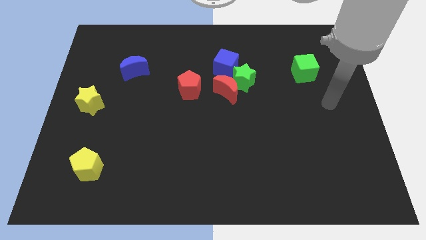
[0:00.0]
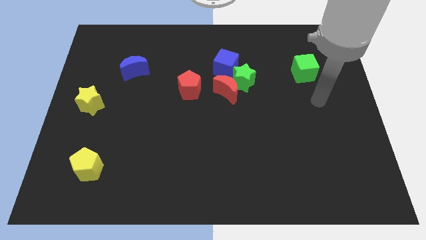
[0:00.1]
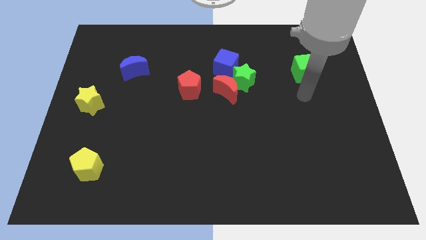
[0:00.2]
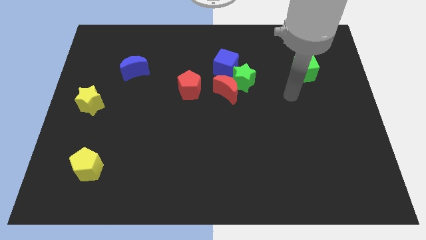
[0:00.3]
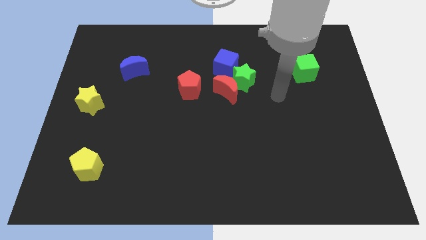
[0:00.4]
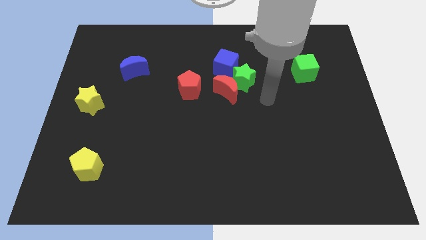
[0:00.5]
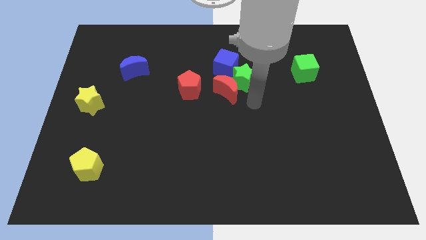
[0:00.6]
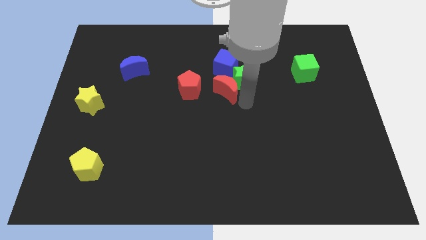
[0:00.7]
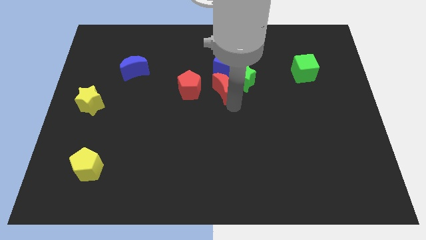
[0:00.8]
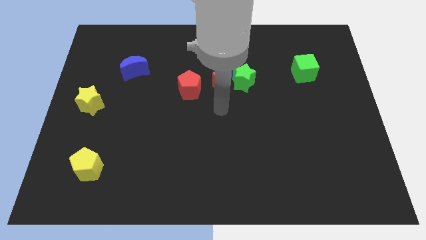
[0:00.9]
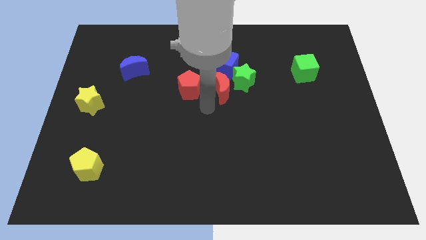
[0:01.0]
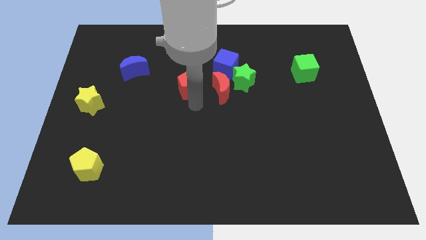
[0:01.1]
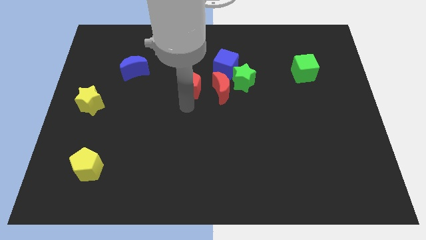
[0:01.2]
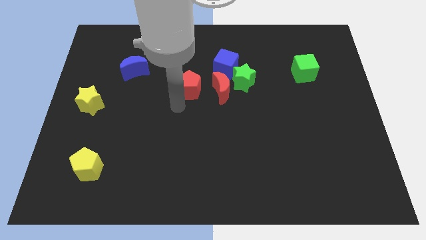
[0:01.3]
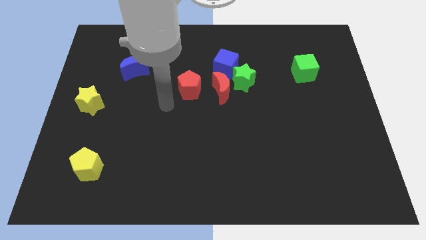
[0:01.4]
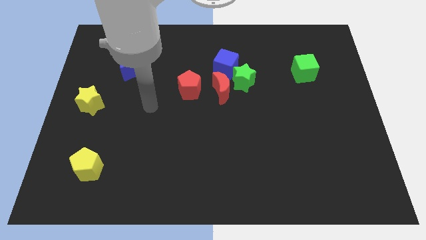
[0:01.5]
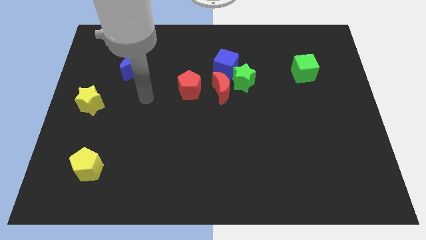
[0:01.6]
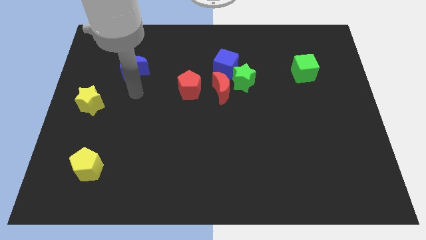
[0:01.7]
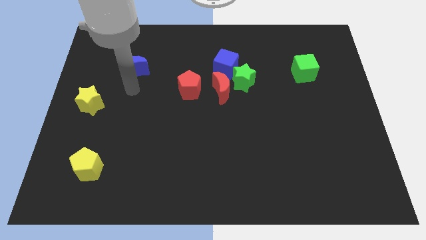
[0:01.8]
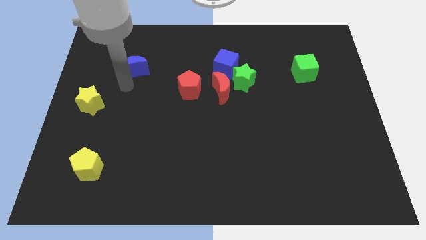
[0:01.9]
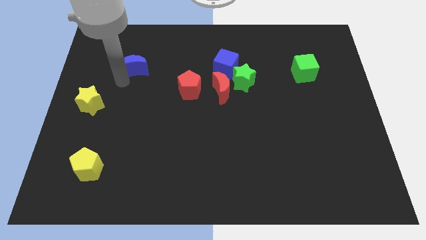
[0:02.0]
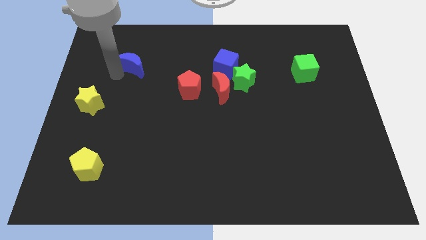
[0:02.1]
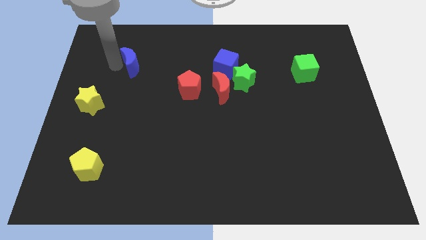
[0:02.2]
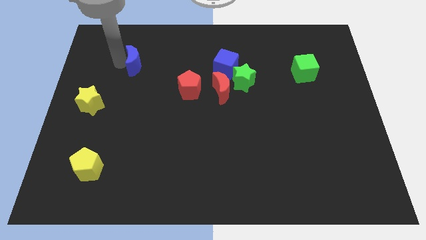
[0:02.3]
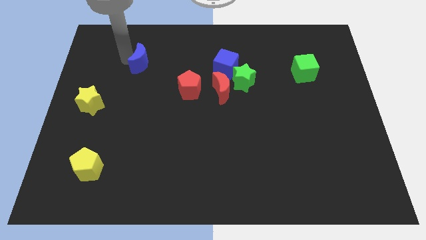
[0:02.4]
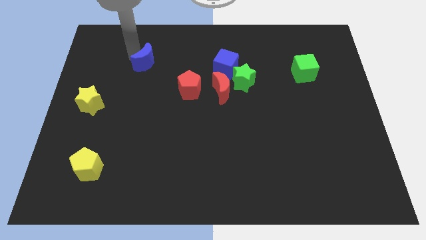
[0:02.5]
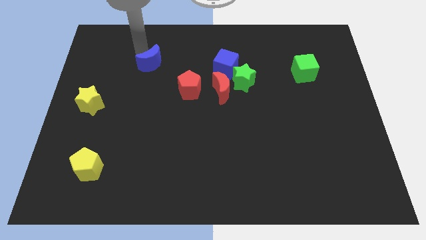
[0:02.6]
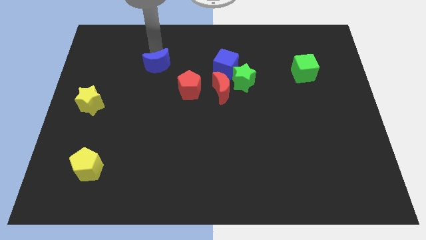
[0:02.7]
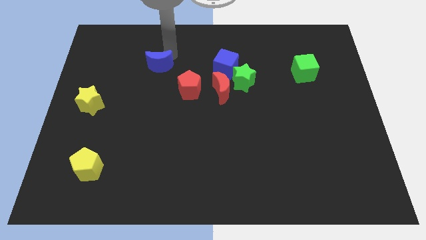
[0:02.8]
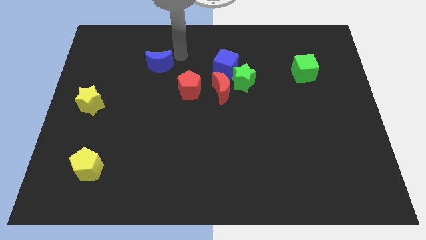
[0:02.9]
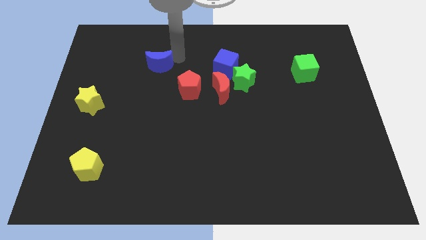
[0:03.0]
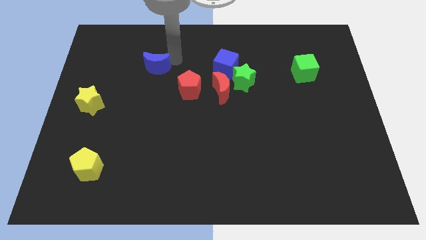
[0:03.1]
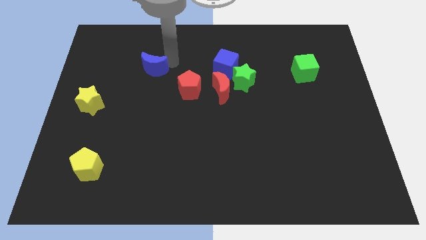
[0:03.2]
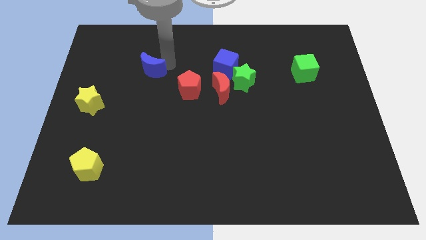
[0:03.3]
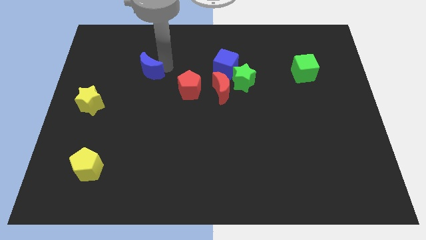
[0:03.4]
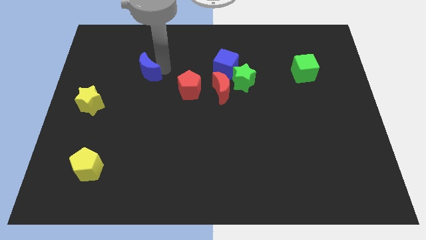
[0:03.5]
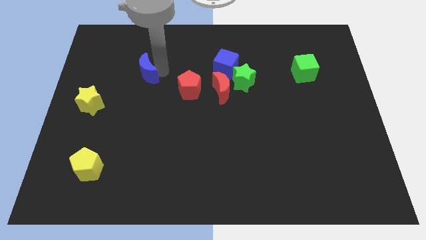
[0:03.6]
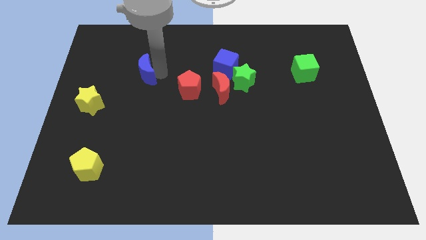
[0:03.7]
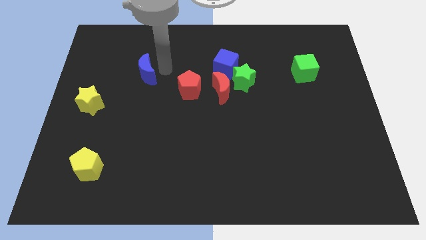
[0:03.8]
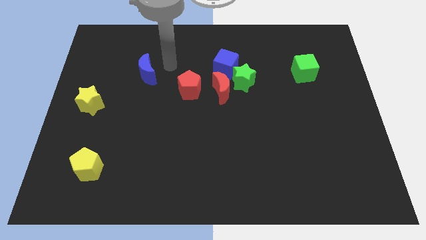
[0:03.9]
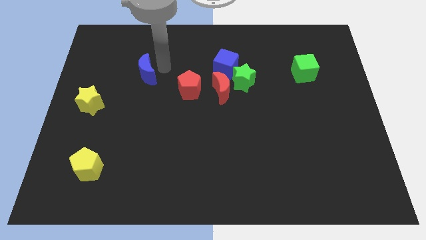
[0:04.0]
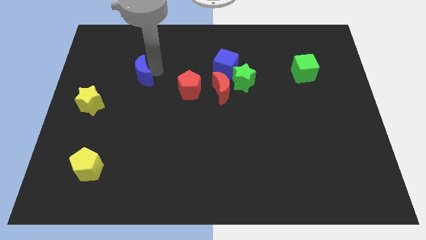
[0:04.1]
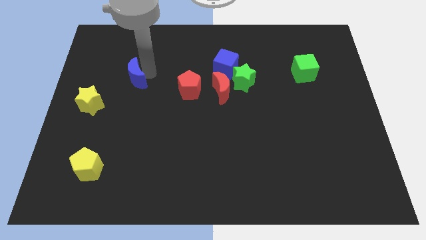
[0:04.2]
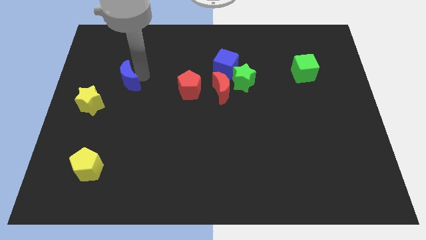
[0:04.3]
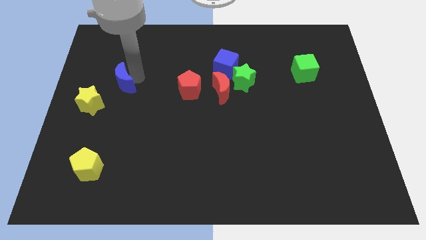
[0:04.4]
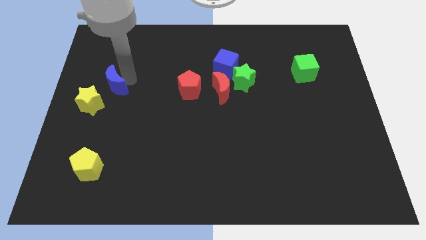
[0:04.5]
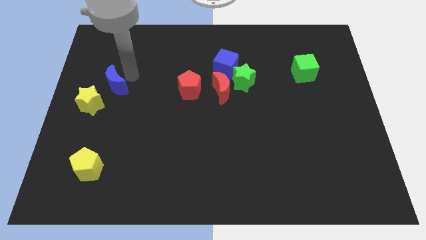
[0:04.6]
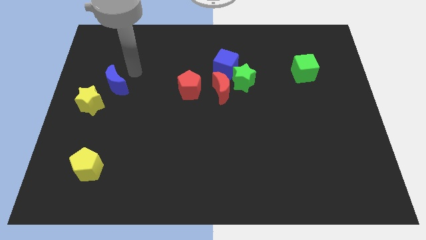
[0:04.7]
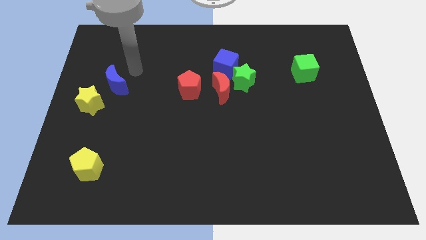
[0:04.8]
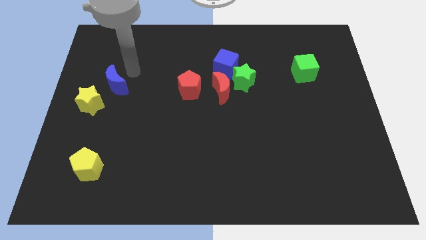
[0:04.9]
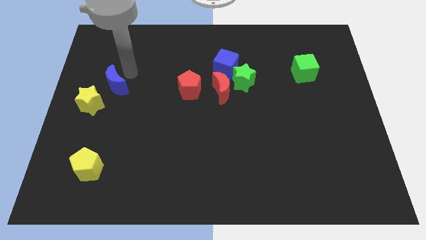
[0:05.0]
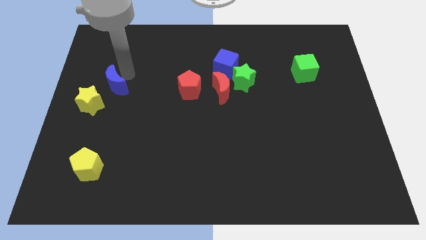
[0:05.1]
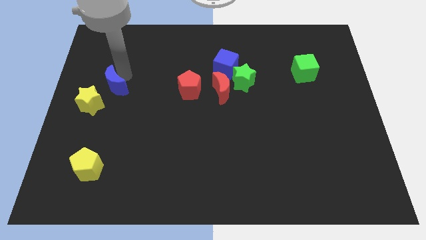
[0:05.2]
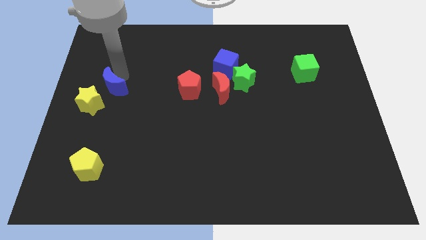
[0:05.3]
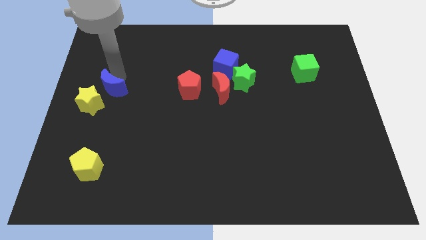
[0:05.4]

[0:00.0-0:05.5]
slide the blue moon towards the yellow star
